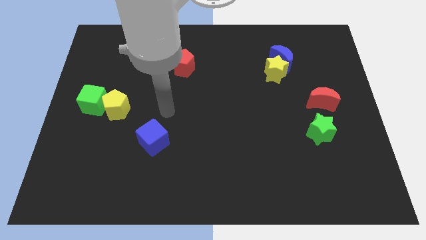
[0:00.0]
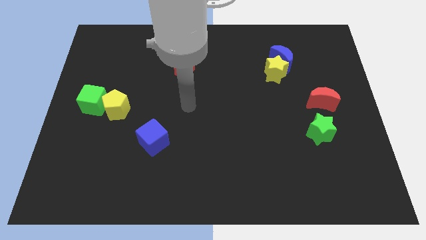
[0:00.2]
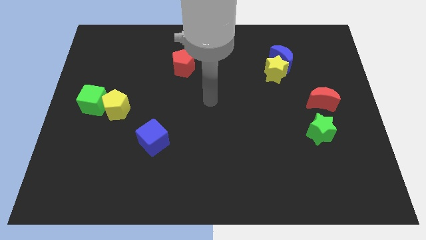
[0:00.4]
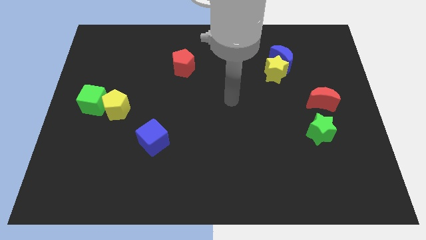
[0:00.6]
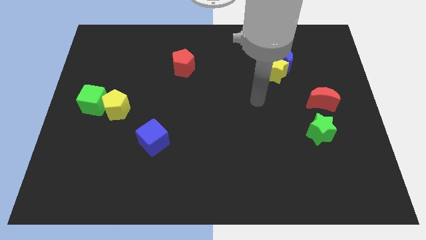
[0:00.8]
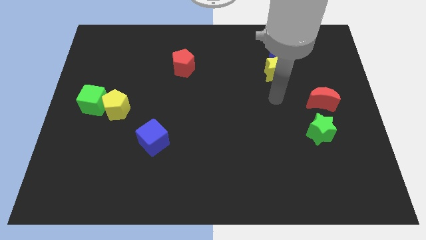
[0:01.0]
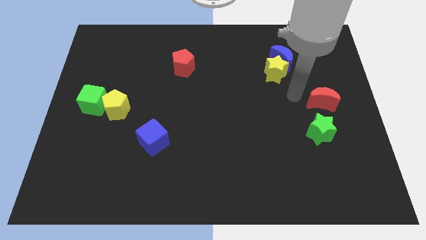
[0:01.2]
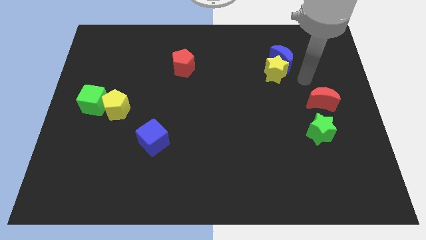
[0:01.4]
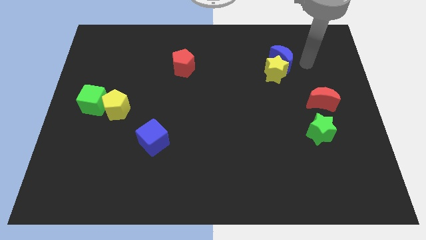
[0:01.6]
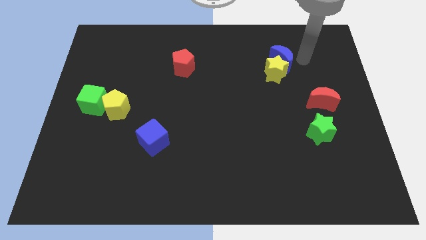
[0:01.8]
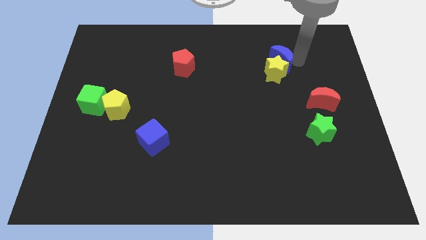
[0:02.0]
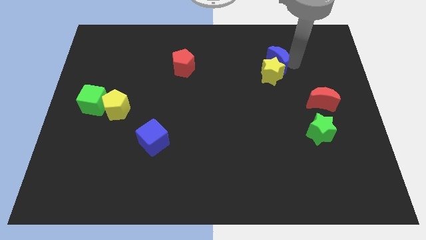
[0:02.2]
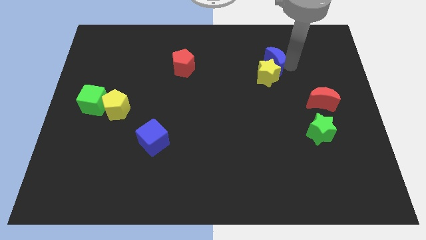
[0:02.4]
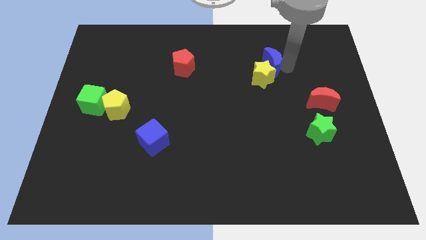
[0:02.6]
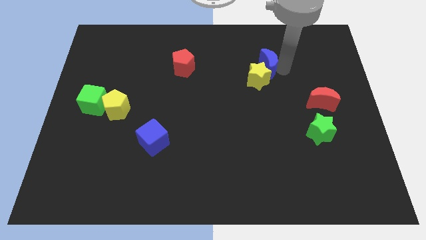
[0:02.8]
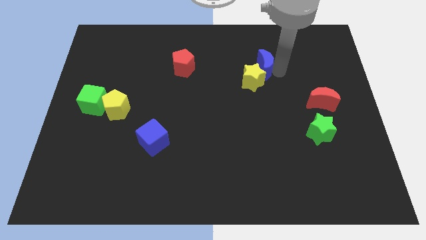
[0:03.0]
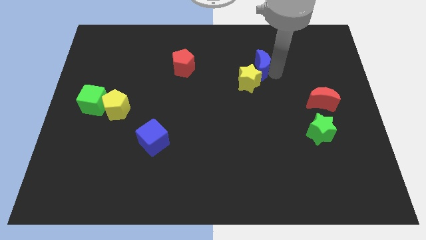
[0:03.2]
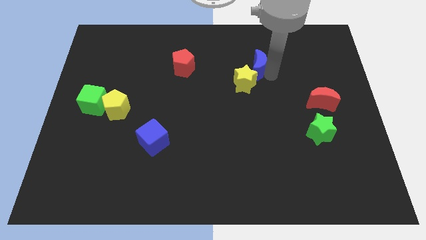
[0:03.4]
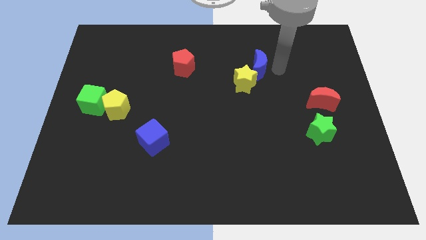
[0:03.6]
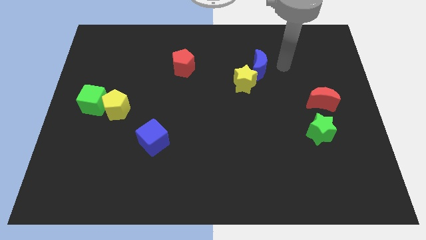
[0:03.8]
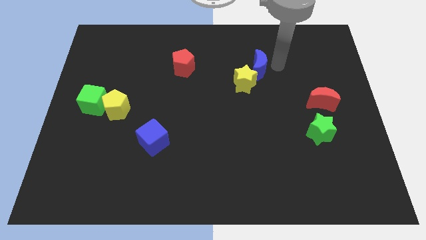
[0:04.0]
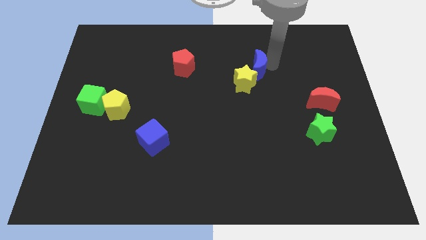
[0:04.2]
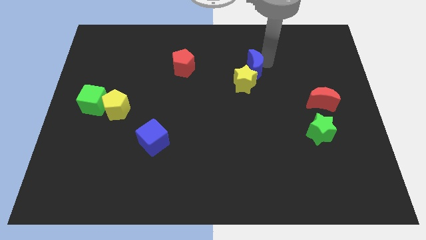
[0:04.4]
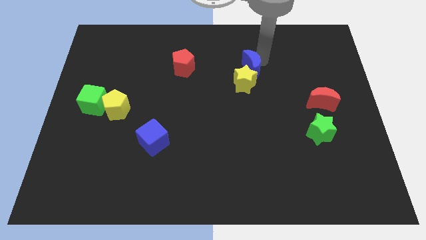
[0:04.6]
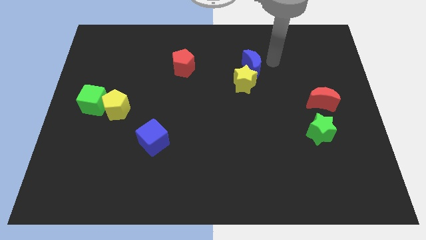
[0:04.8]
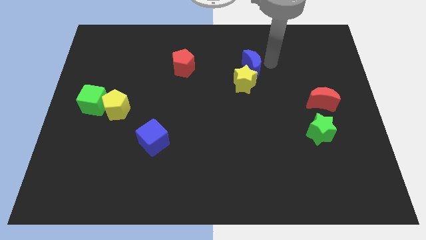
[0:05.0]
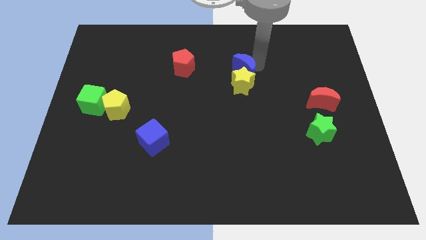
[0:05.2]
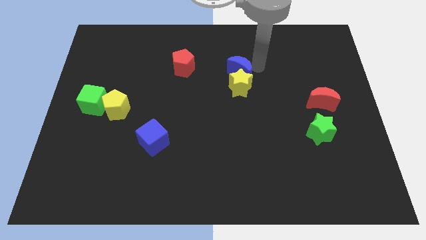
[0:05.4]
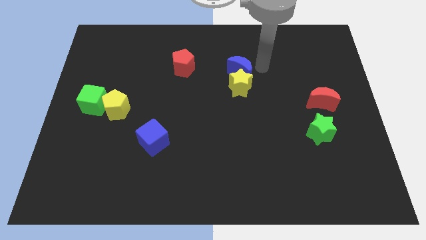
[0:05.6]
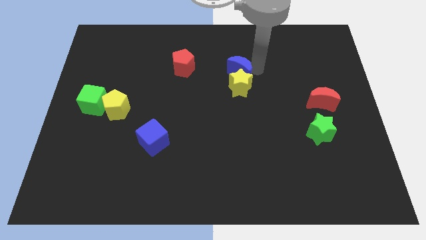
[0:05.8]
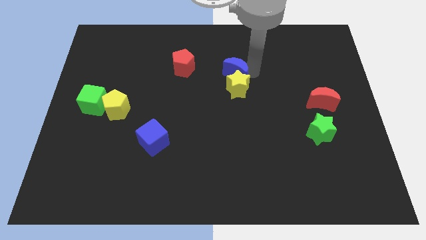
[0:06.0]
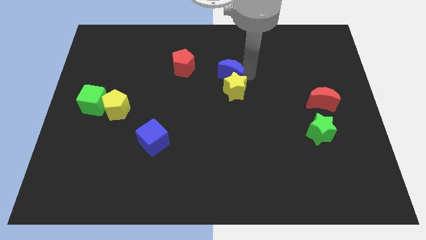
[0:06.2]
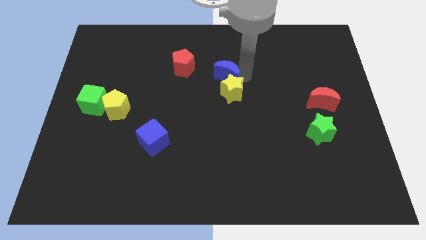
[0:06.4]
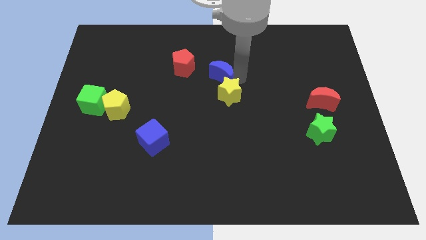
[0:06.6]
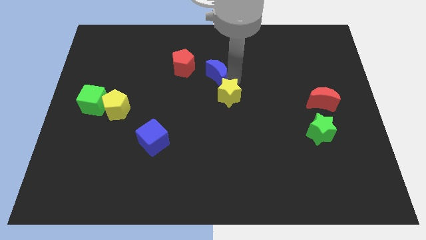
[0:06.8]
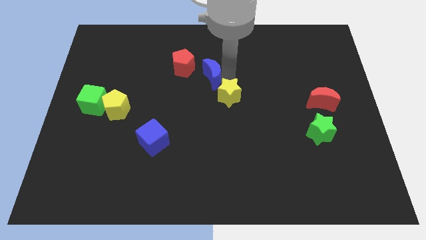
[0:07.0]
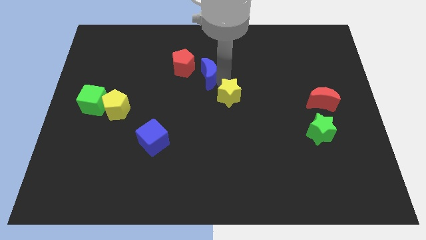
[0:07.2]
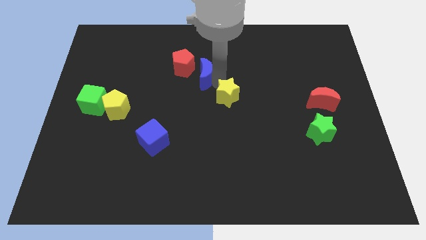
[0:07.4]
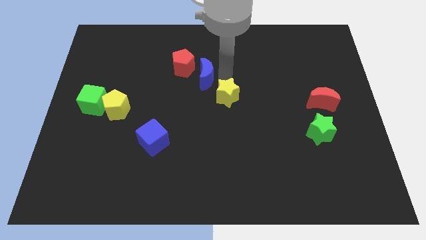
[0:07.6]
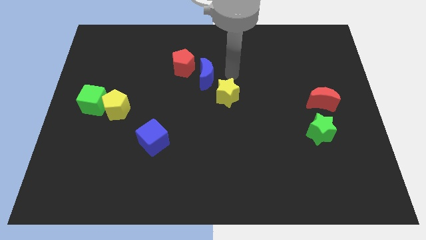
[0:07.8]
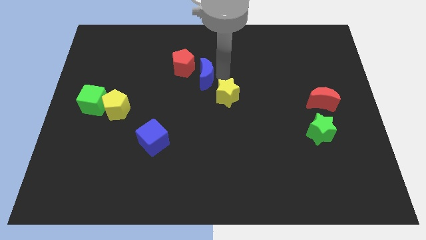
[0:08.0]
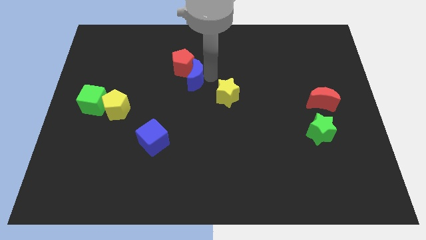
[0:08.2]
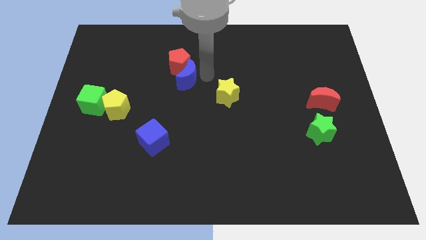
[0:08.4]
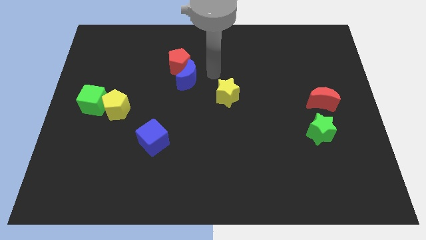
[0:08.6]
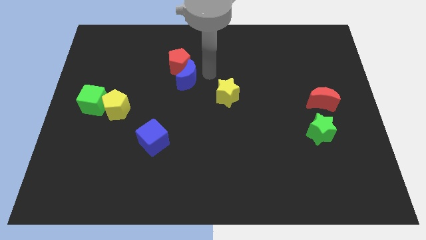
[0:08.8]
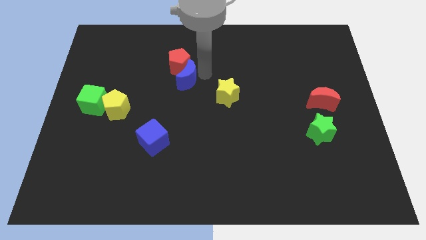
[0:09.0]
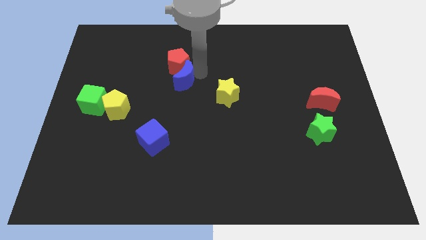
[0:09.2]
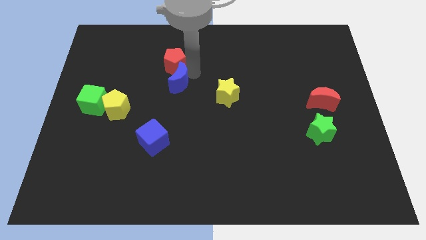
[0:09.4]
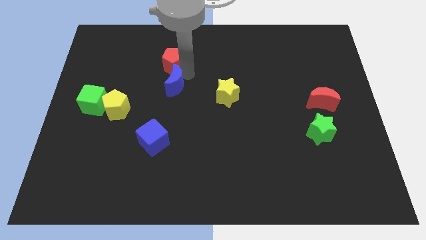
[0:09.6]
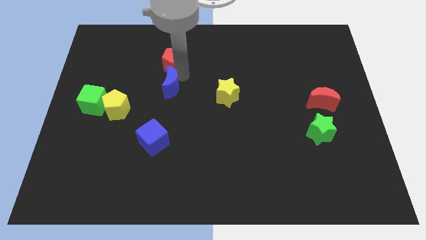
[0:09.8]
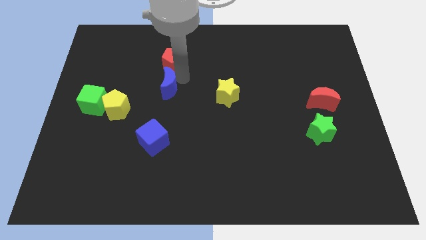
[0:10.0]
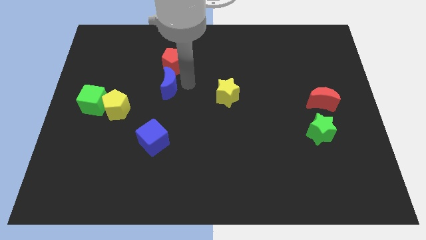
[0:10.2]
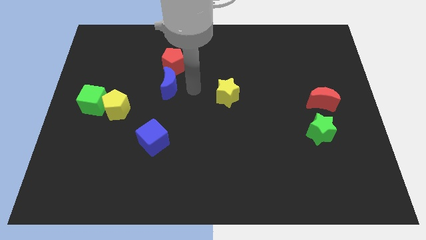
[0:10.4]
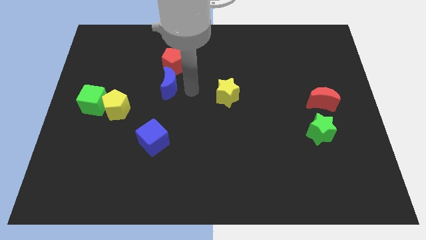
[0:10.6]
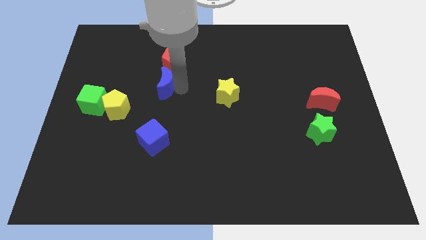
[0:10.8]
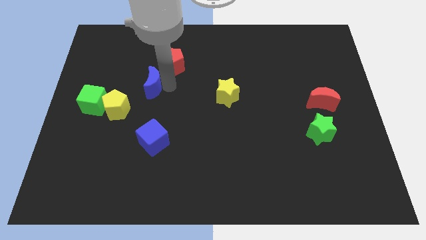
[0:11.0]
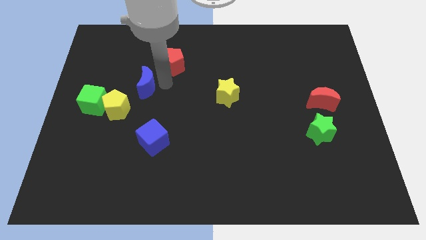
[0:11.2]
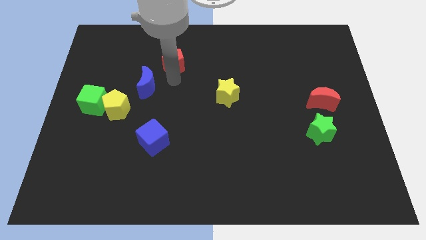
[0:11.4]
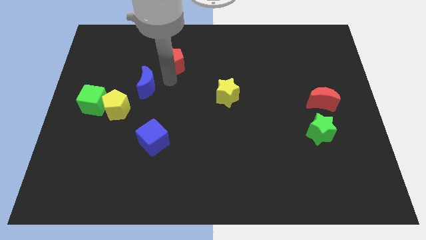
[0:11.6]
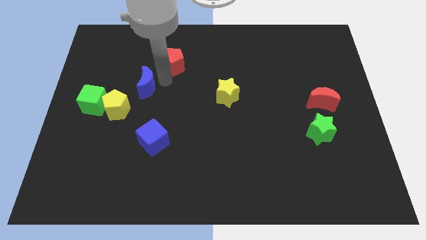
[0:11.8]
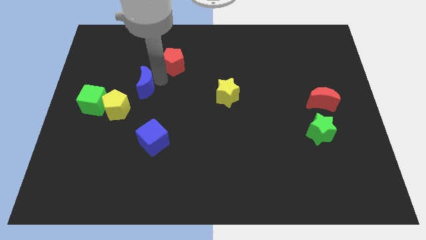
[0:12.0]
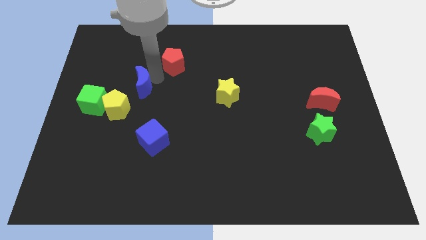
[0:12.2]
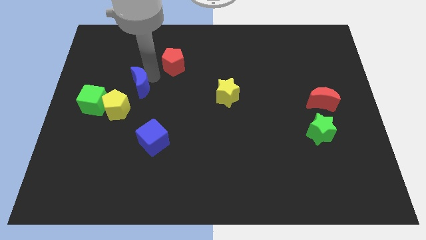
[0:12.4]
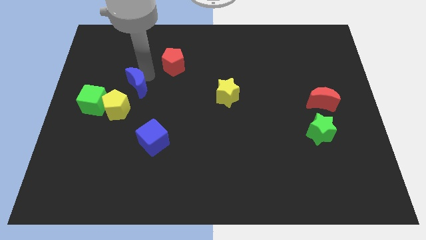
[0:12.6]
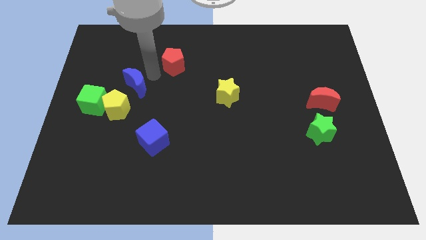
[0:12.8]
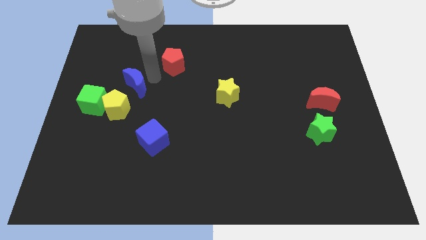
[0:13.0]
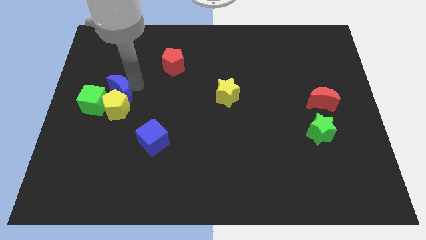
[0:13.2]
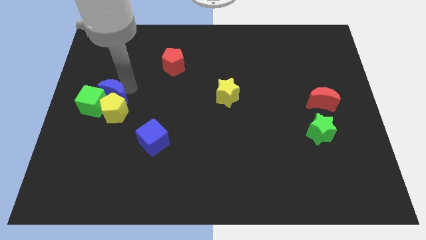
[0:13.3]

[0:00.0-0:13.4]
put the blue moon next to the green cube
